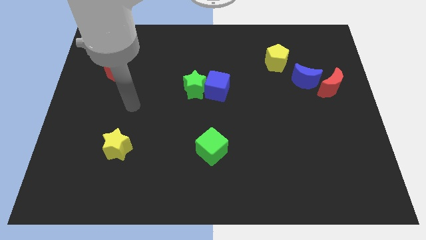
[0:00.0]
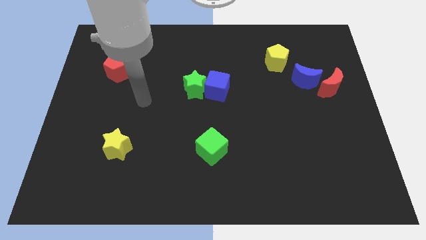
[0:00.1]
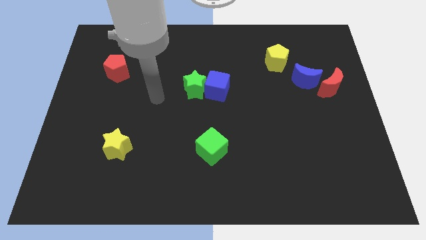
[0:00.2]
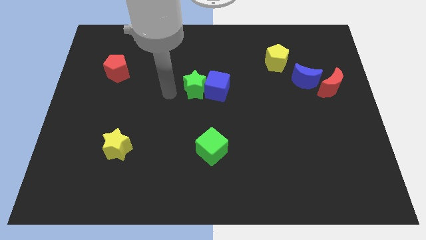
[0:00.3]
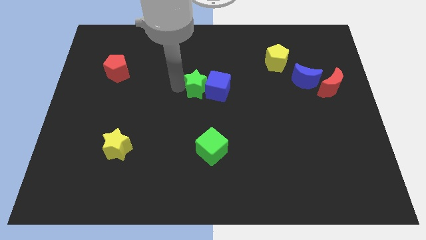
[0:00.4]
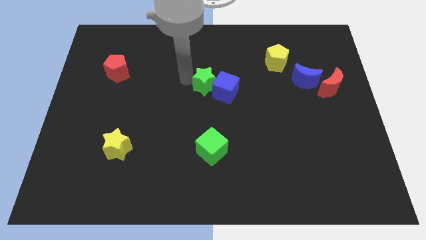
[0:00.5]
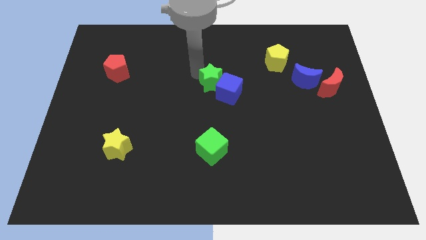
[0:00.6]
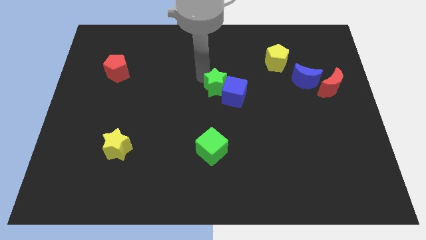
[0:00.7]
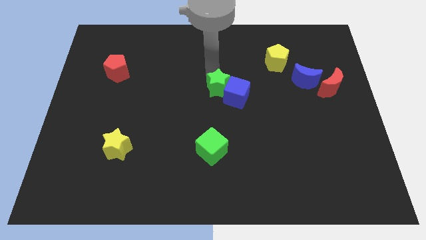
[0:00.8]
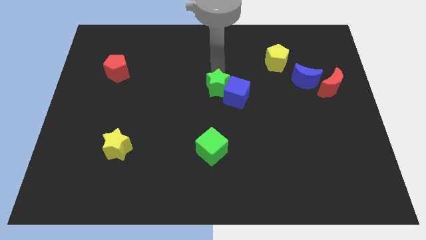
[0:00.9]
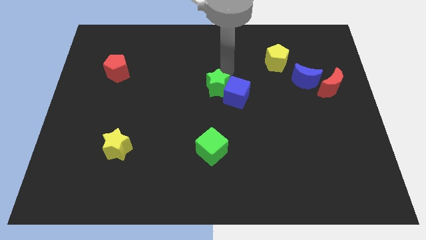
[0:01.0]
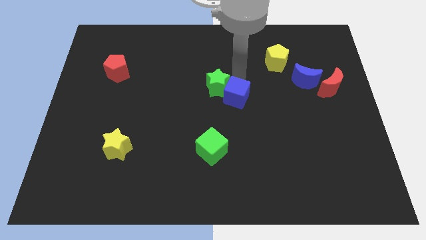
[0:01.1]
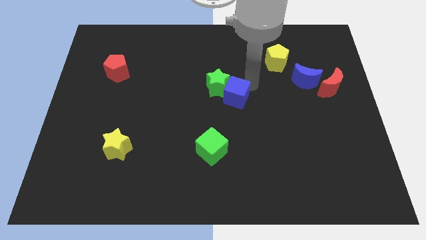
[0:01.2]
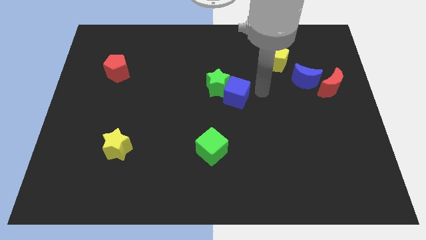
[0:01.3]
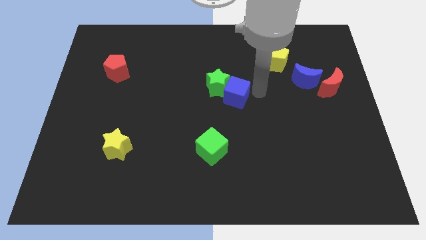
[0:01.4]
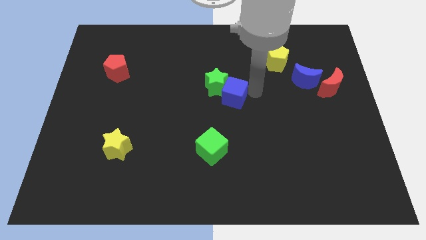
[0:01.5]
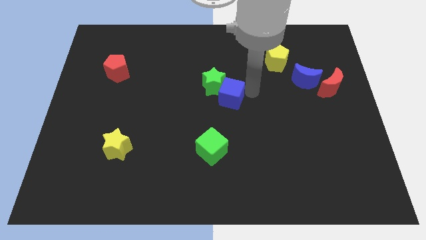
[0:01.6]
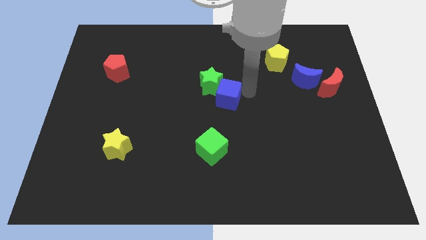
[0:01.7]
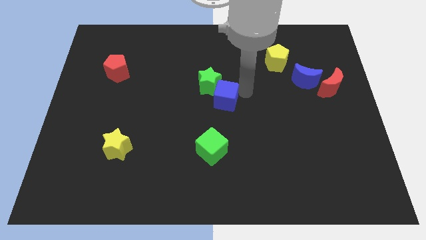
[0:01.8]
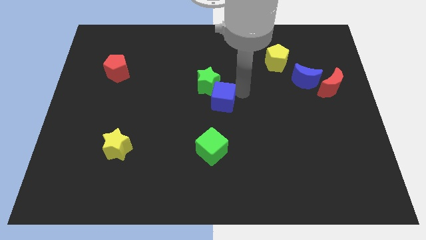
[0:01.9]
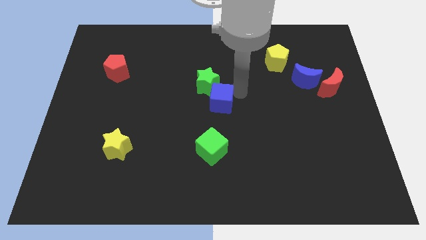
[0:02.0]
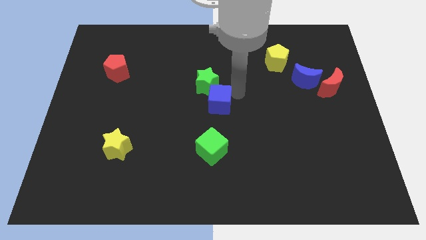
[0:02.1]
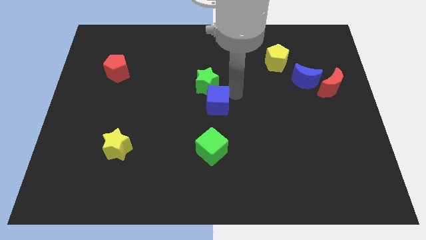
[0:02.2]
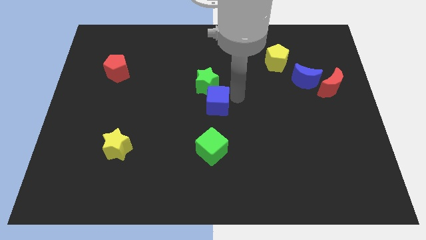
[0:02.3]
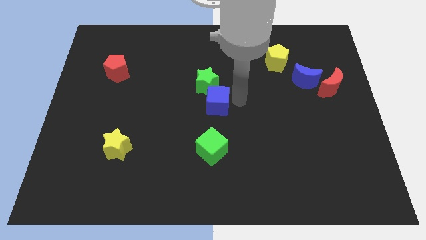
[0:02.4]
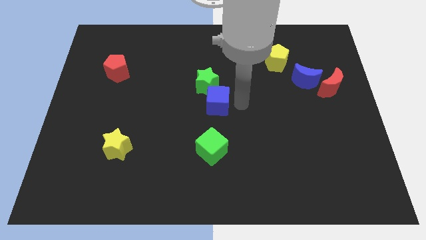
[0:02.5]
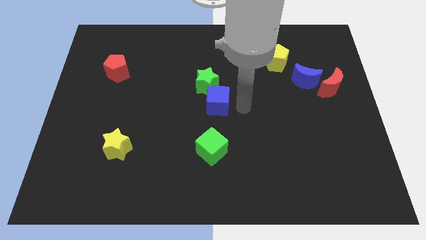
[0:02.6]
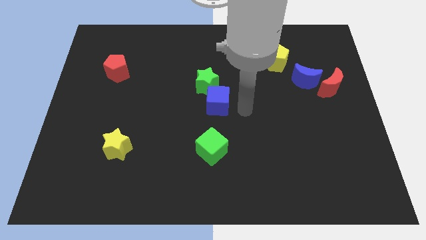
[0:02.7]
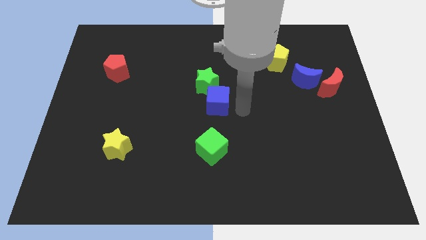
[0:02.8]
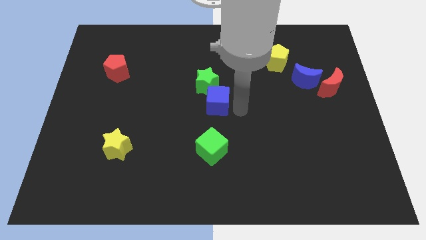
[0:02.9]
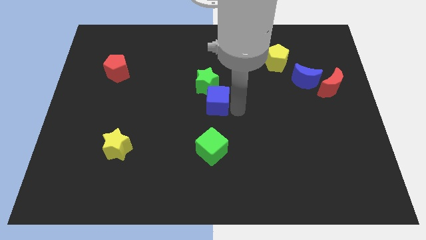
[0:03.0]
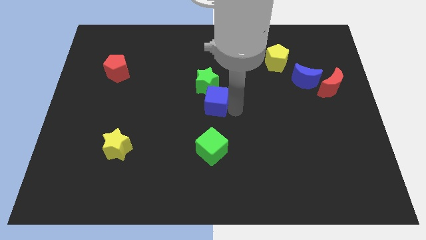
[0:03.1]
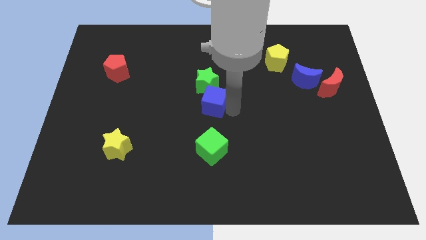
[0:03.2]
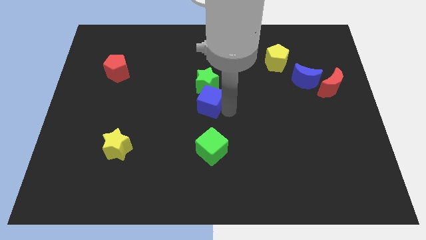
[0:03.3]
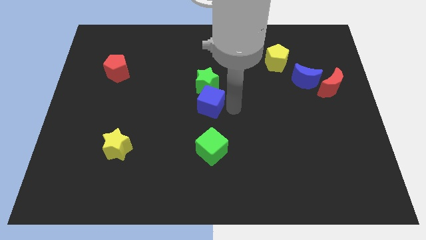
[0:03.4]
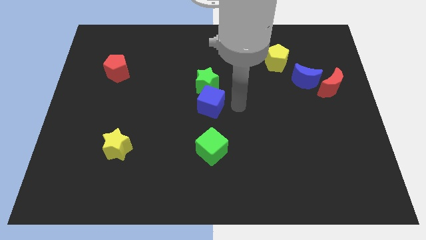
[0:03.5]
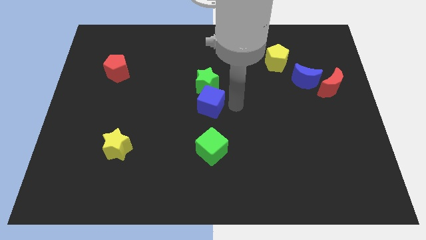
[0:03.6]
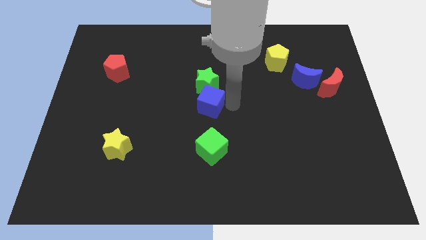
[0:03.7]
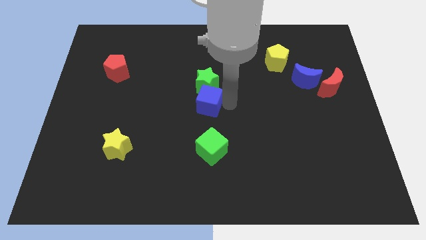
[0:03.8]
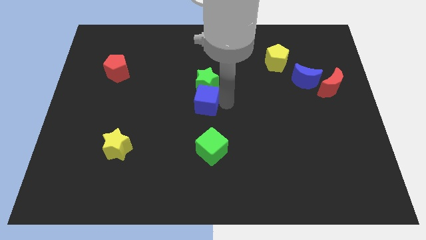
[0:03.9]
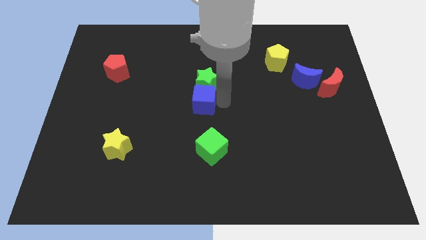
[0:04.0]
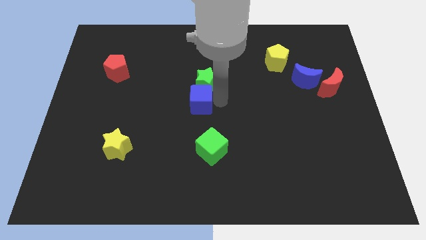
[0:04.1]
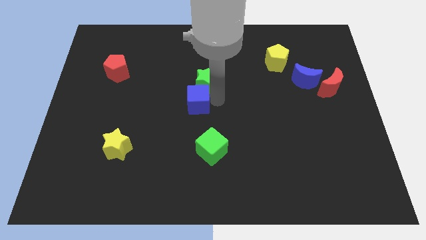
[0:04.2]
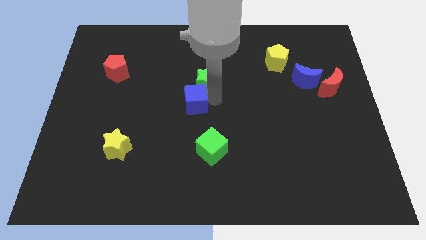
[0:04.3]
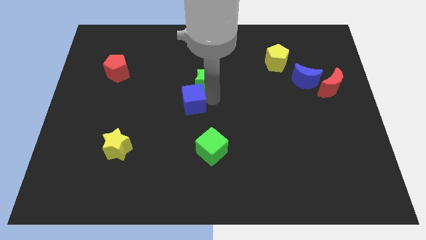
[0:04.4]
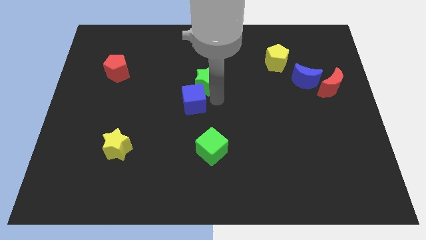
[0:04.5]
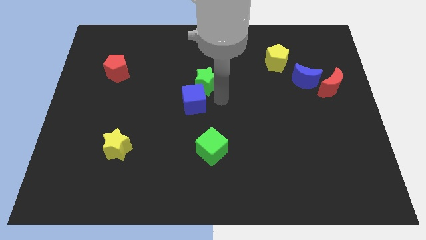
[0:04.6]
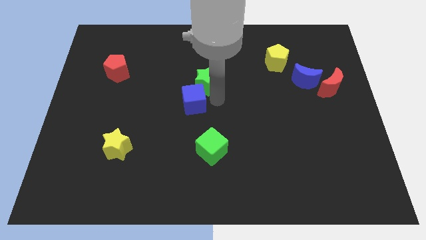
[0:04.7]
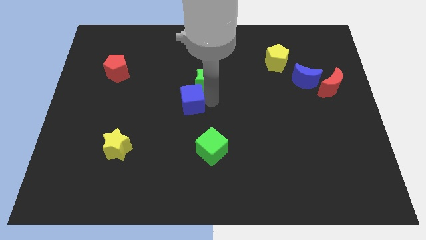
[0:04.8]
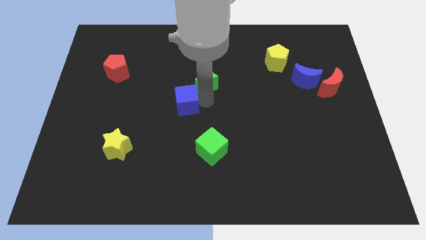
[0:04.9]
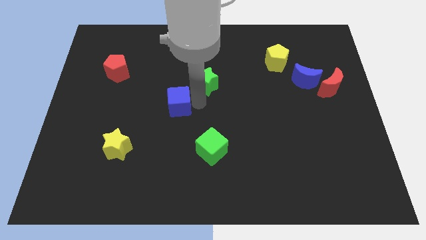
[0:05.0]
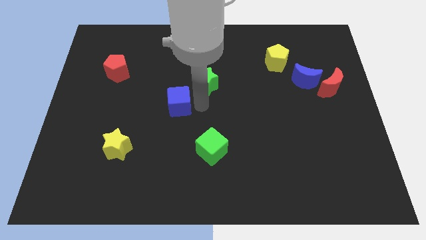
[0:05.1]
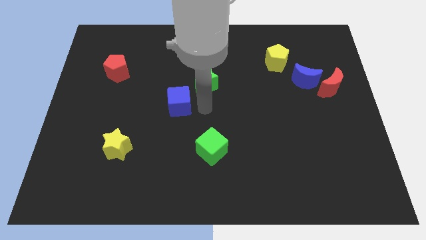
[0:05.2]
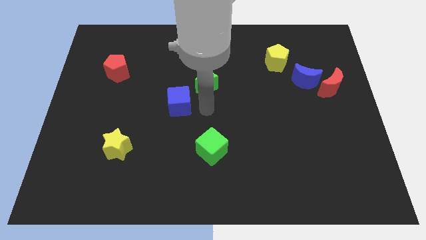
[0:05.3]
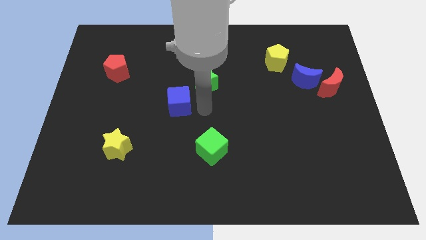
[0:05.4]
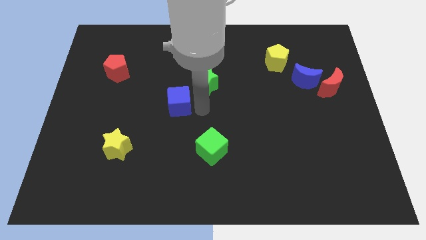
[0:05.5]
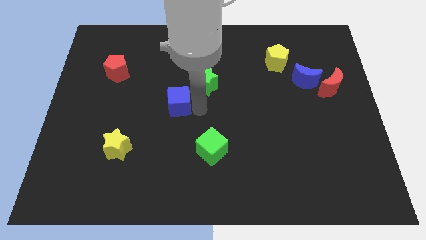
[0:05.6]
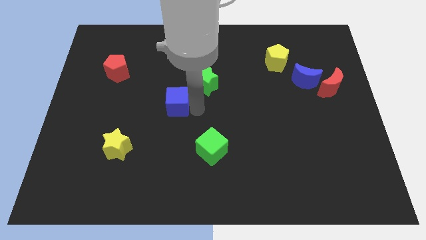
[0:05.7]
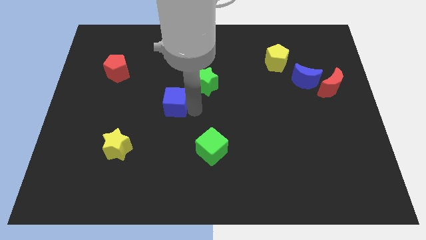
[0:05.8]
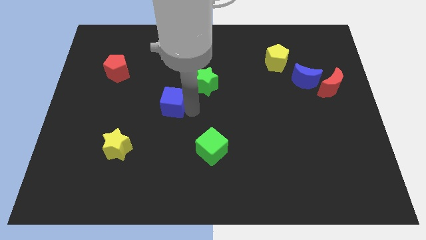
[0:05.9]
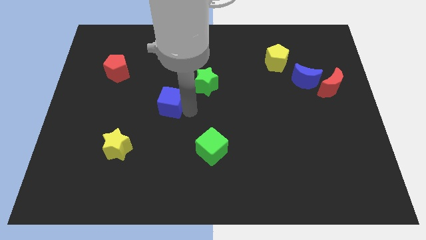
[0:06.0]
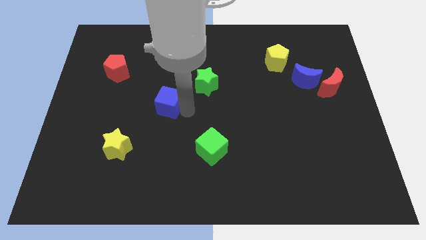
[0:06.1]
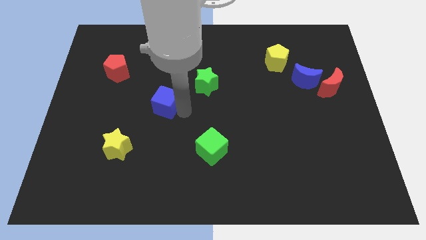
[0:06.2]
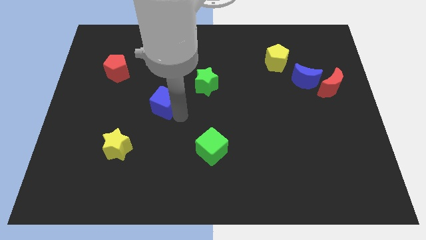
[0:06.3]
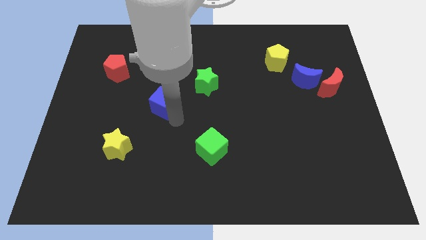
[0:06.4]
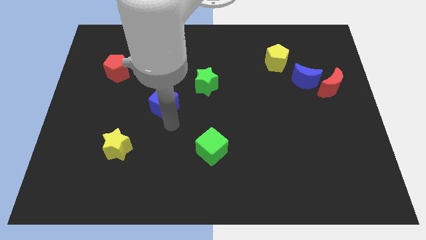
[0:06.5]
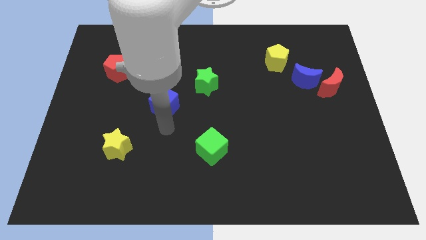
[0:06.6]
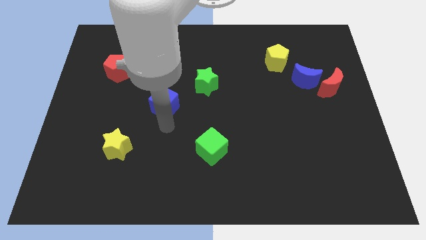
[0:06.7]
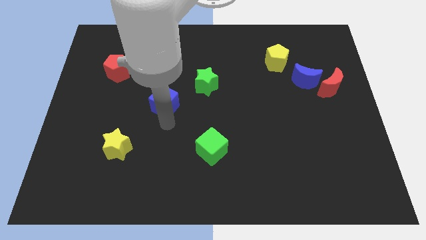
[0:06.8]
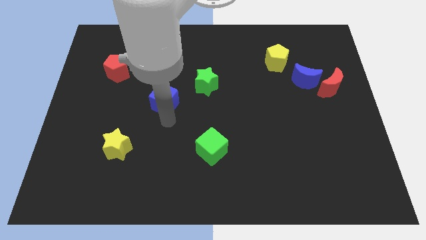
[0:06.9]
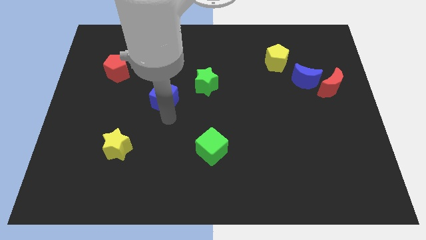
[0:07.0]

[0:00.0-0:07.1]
slide the blue cube just left of the green star
